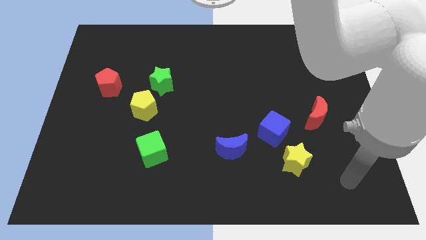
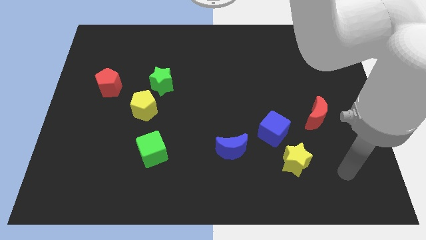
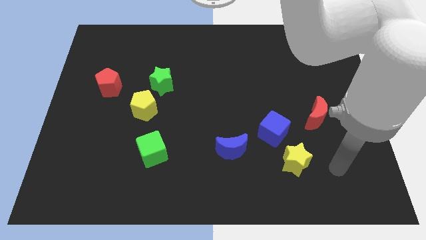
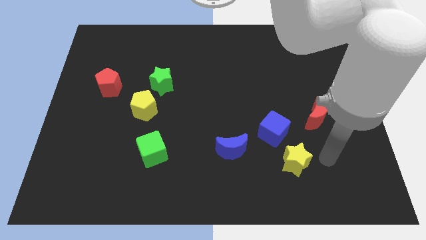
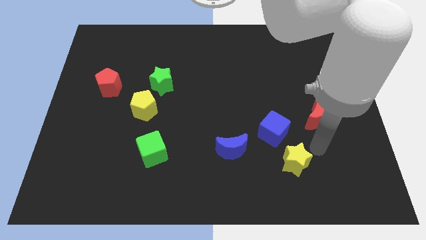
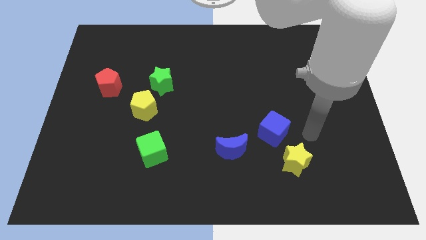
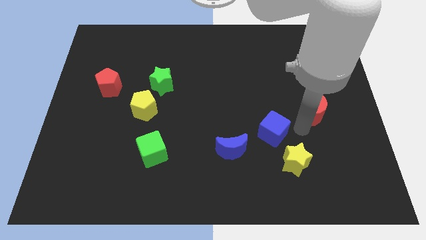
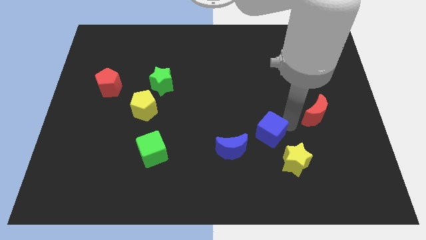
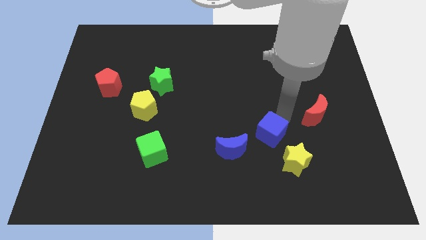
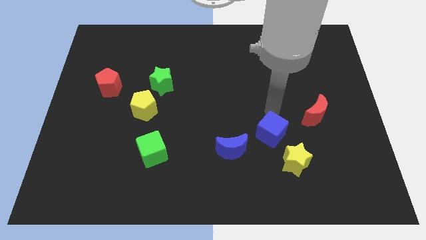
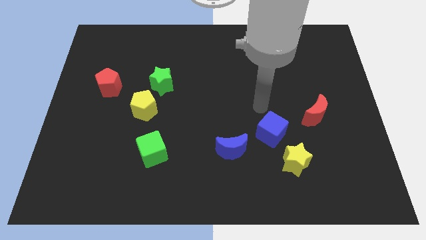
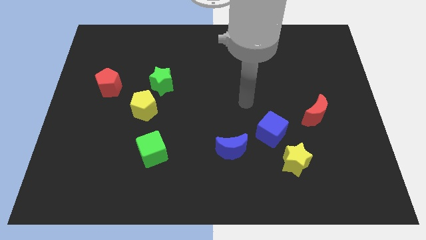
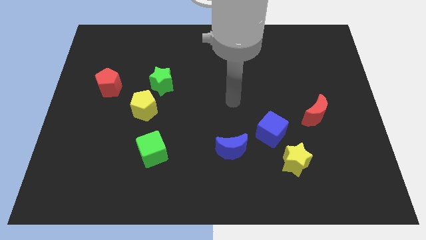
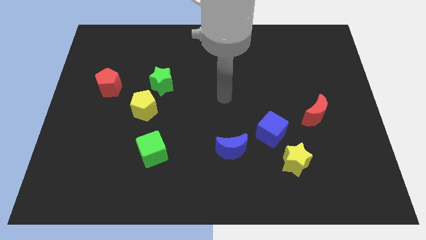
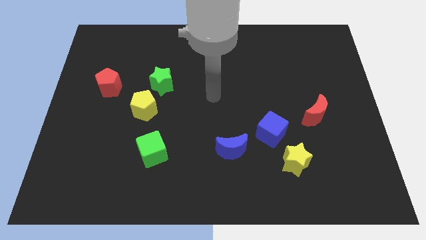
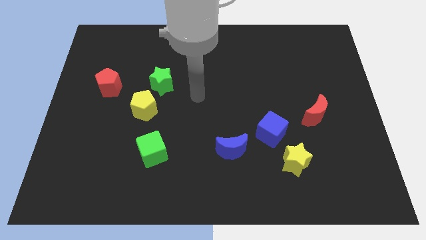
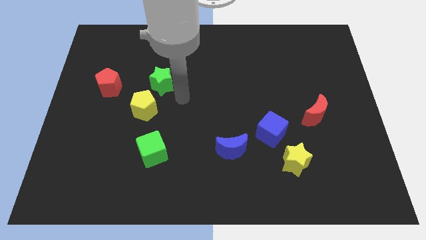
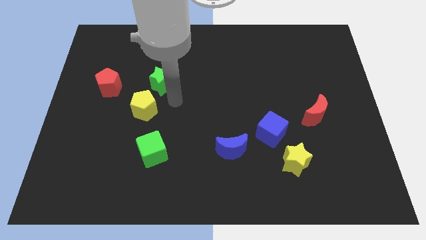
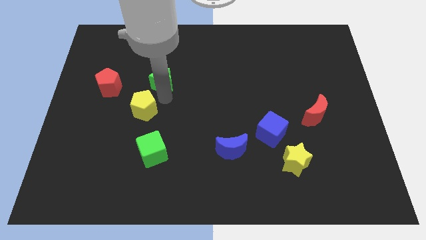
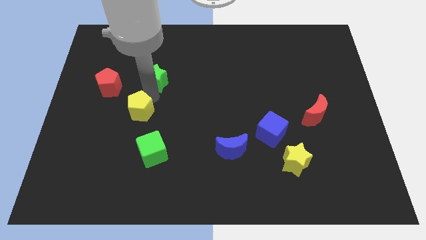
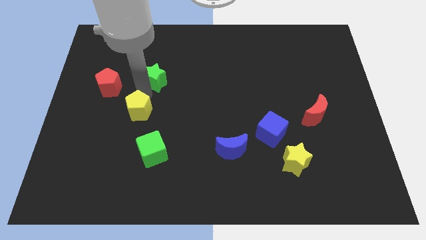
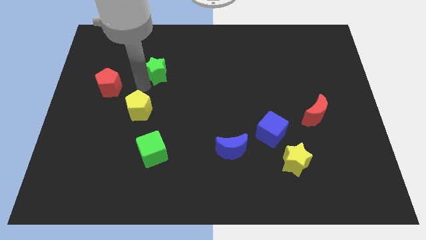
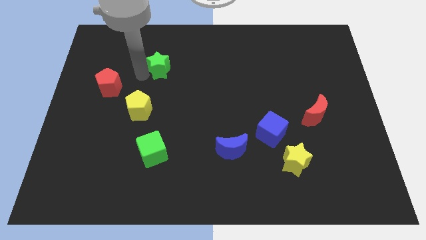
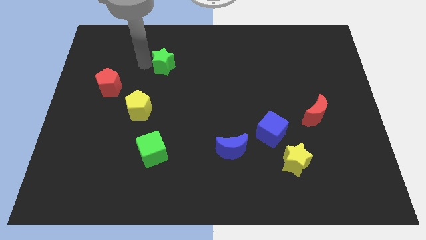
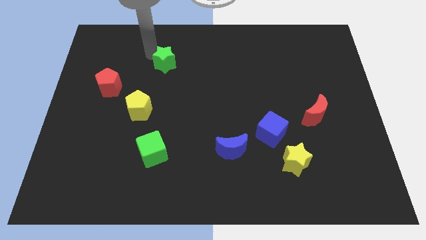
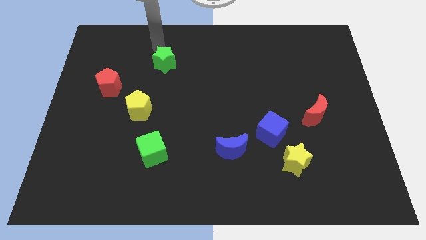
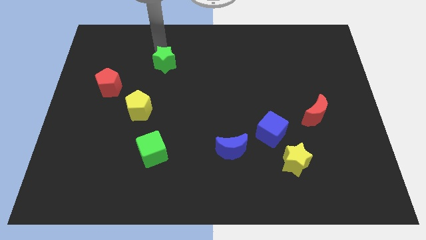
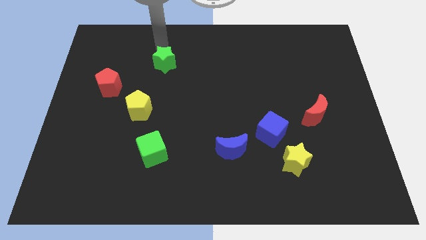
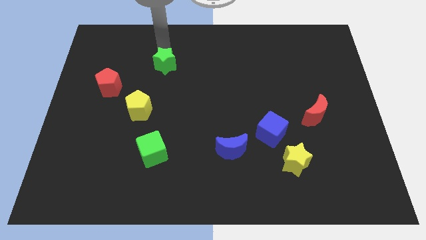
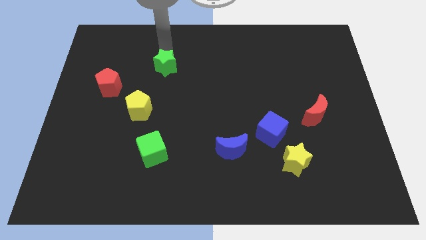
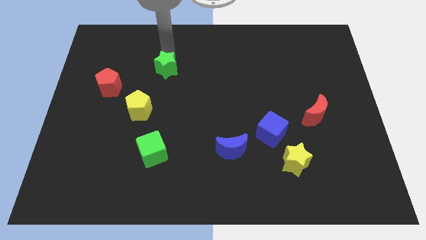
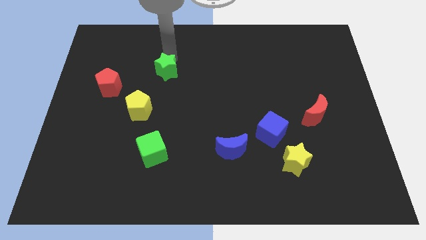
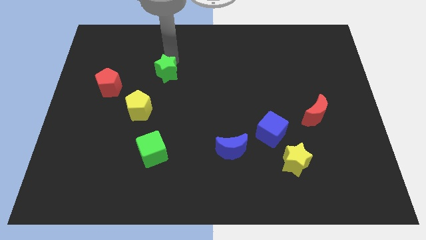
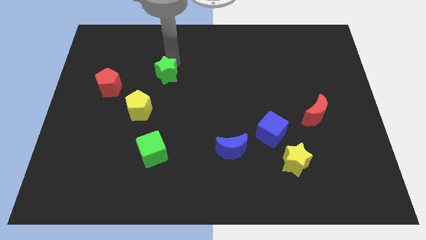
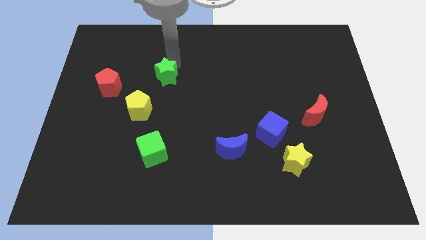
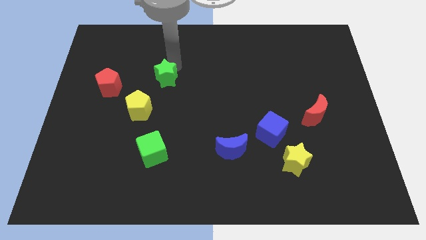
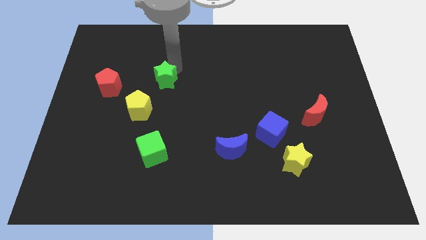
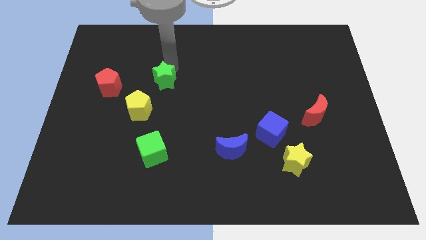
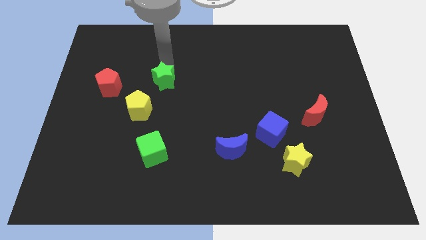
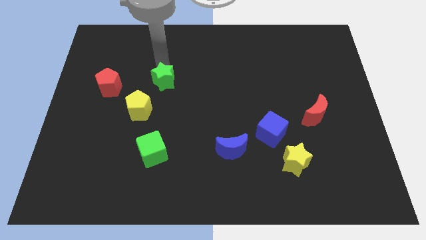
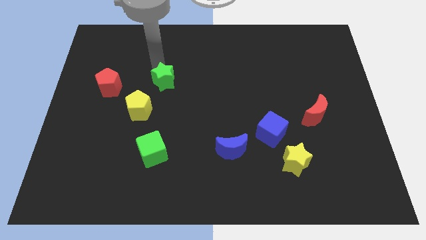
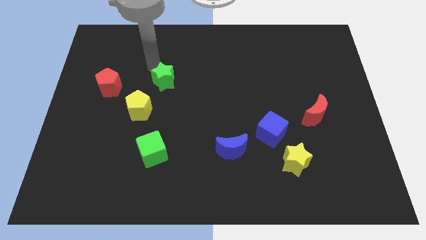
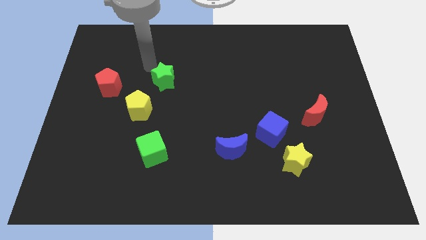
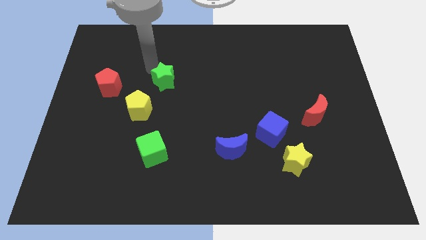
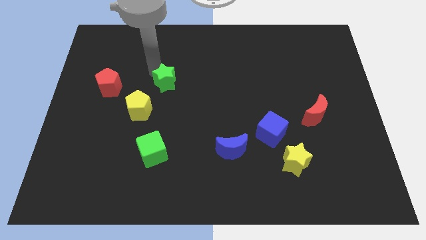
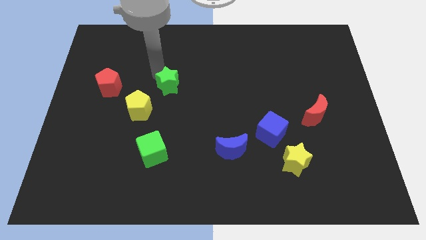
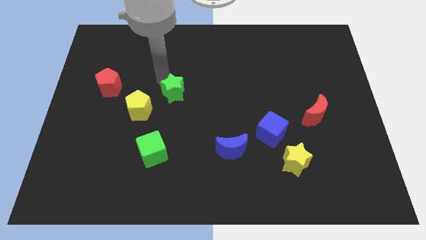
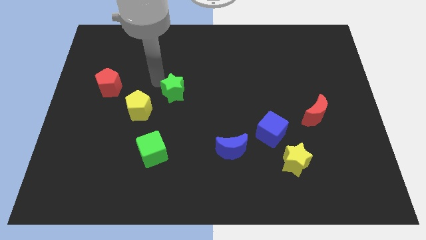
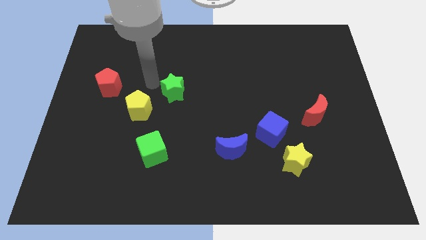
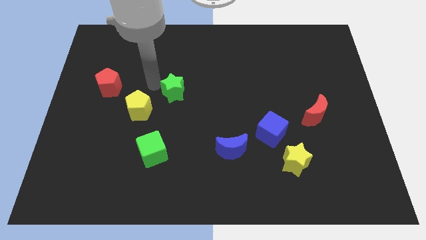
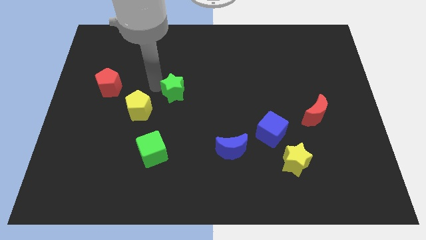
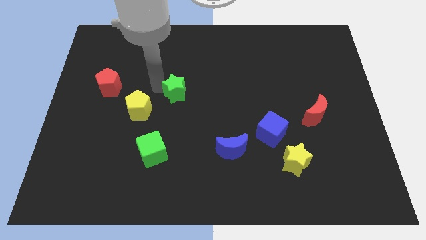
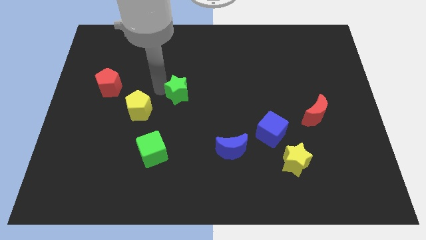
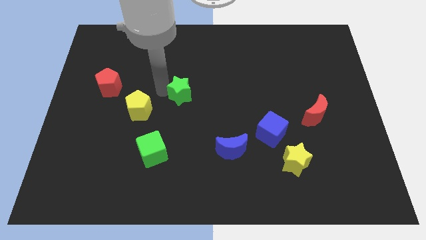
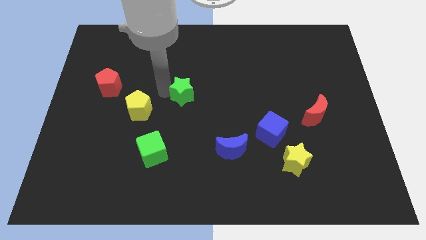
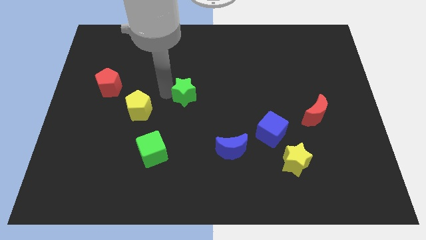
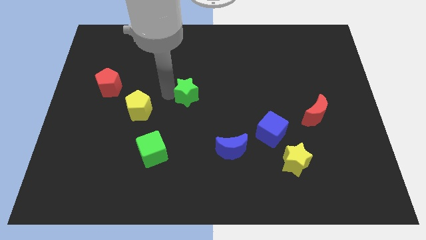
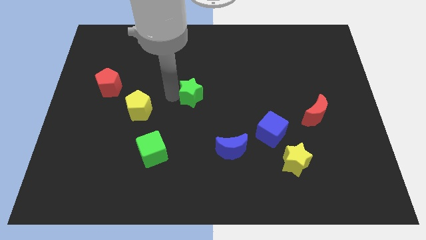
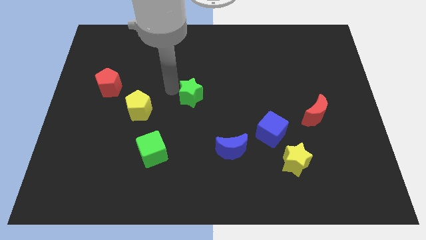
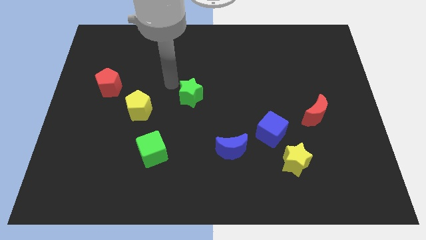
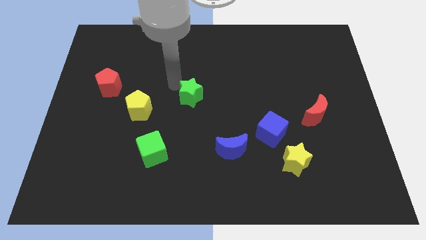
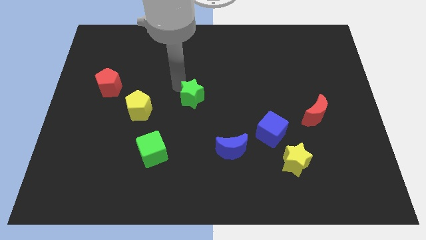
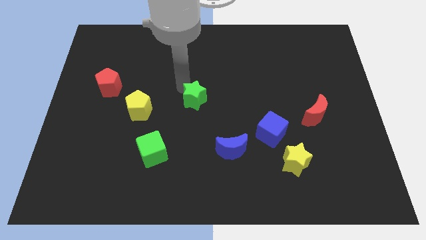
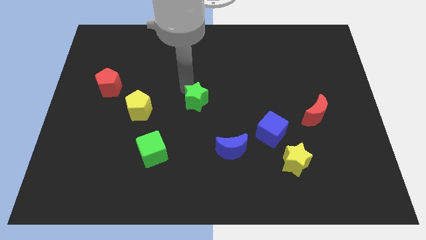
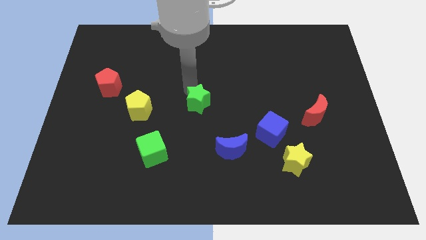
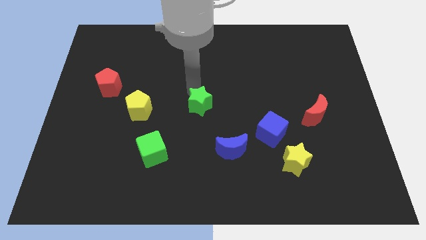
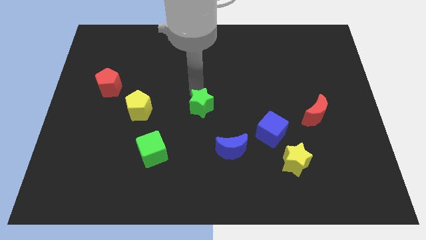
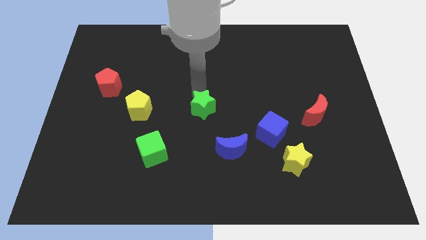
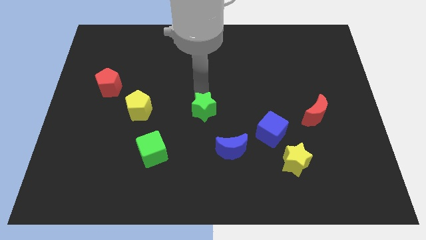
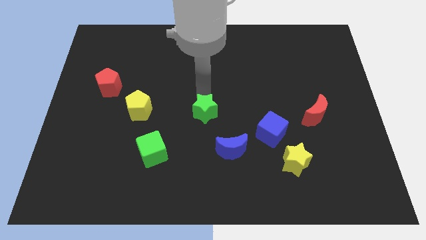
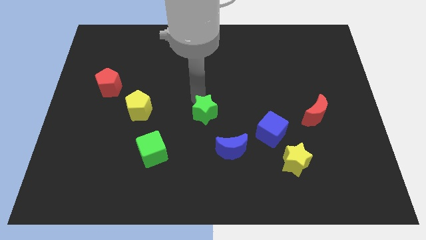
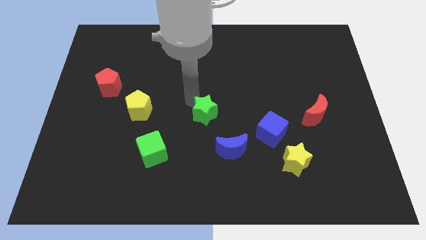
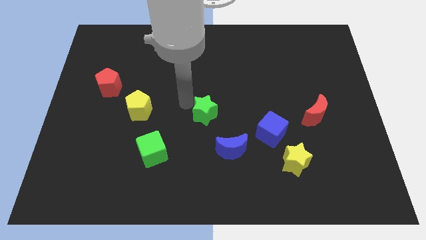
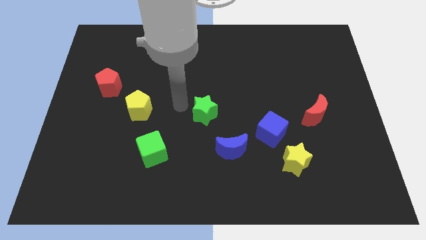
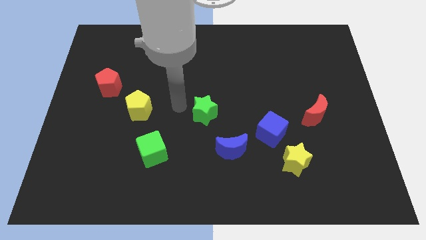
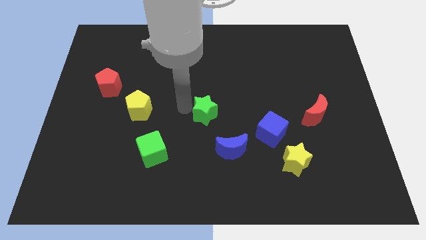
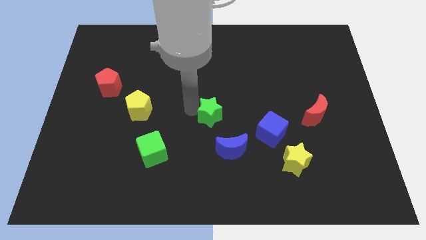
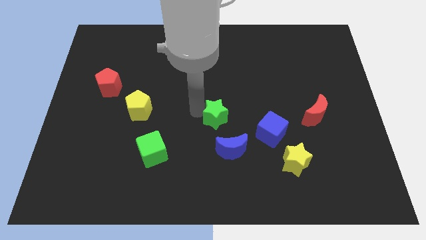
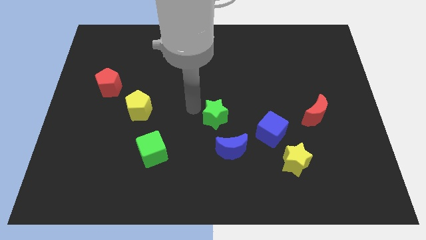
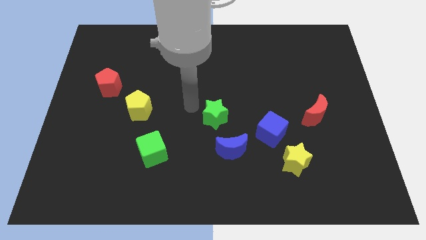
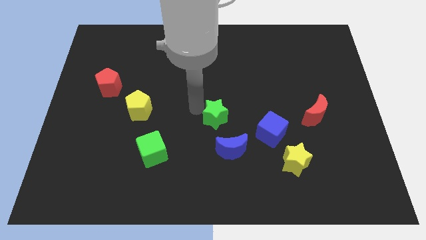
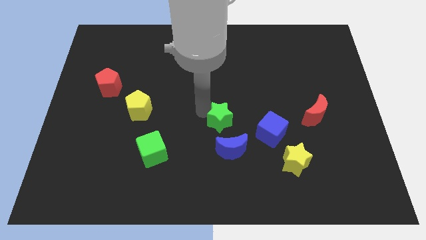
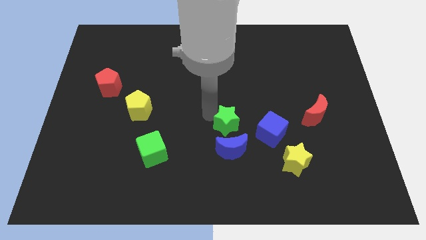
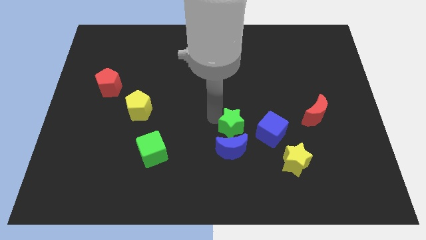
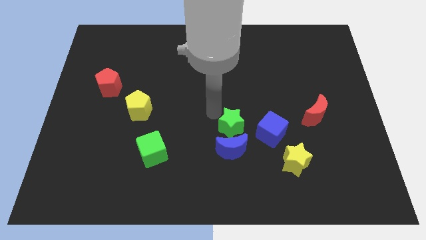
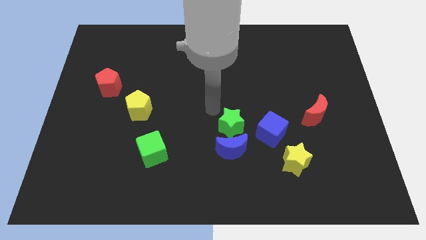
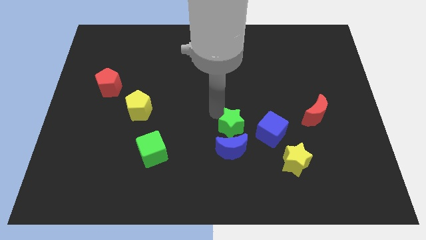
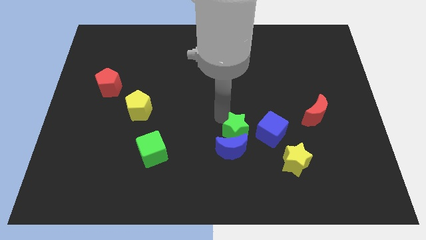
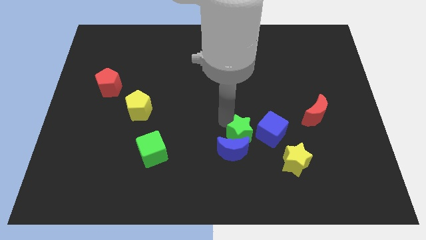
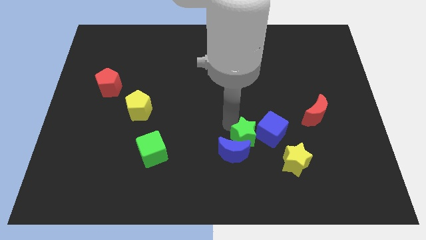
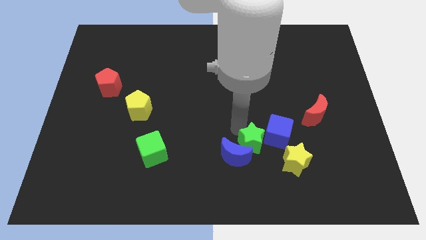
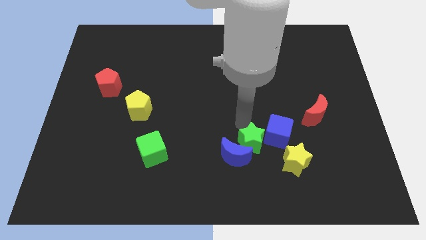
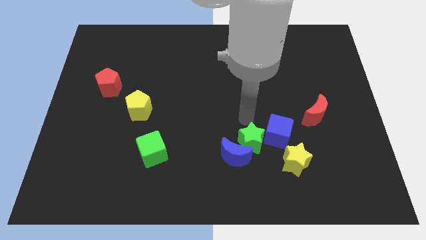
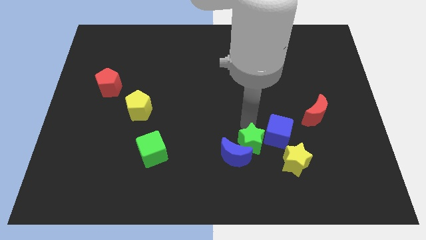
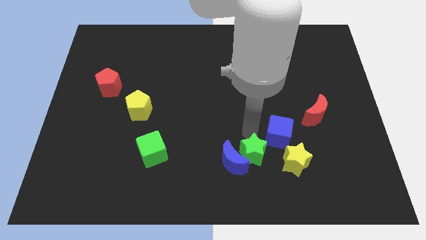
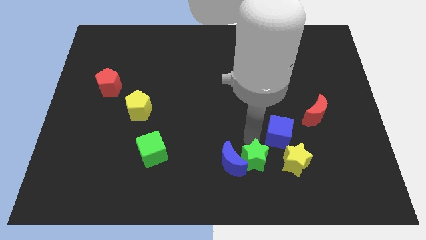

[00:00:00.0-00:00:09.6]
push the green star to the bottom right side of the blue moon
